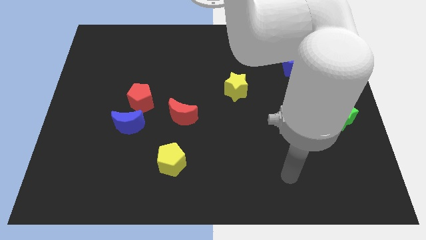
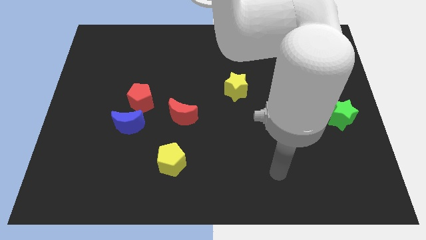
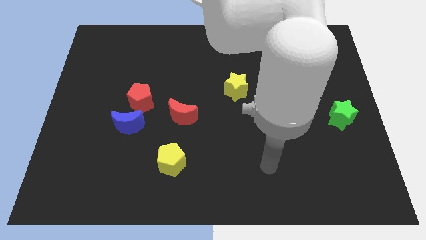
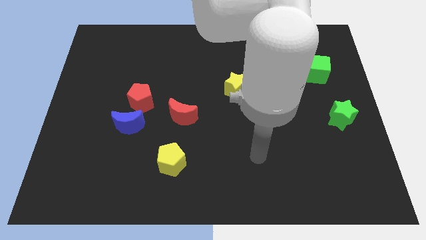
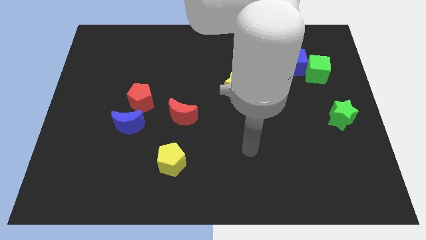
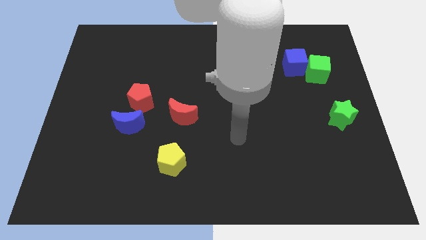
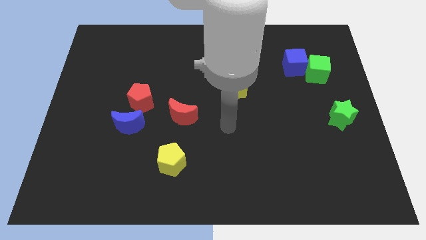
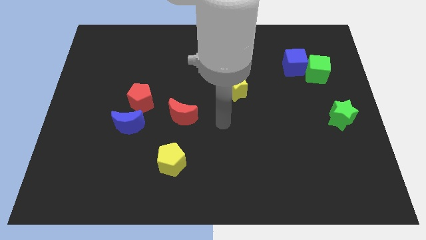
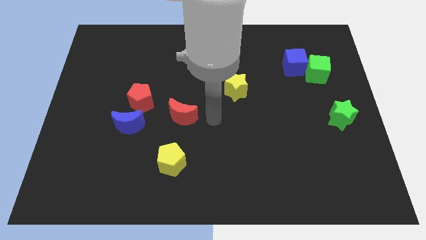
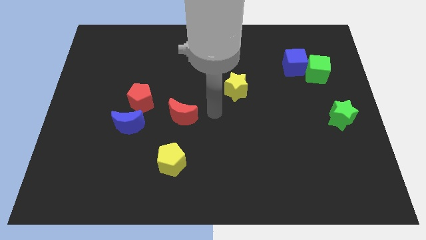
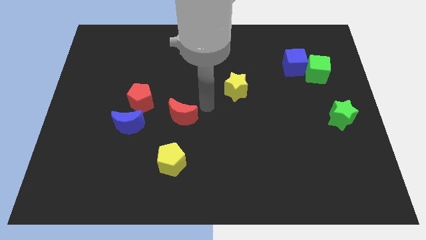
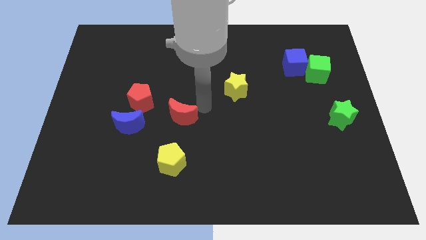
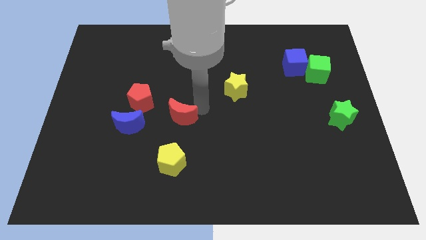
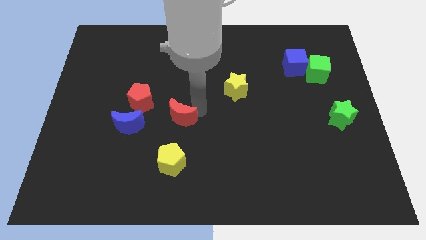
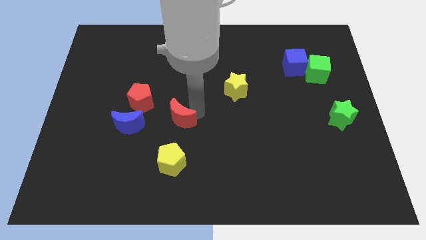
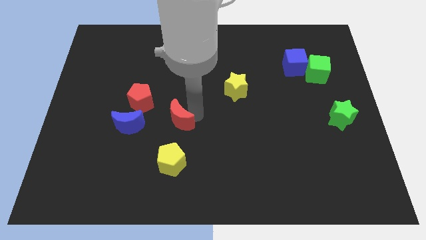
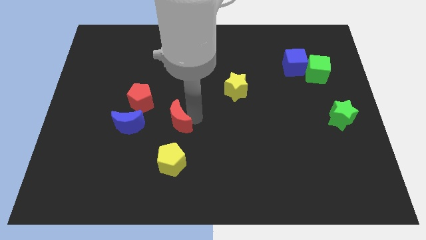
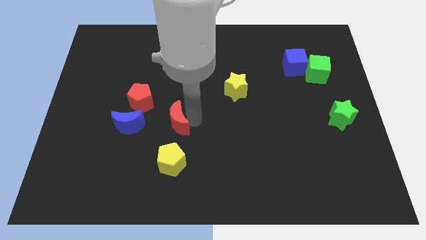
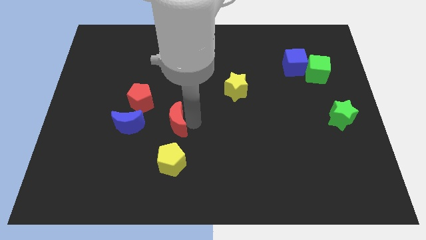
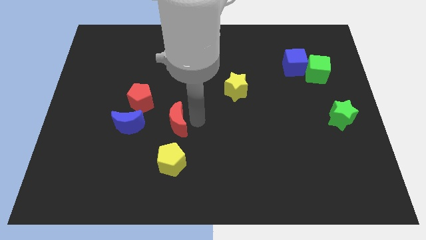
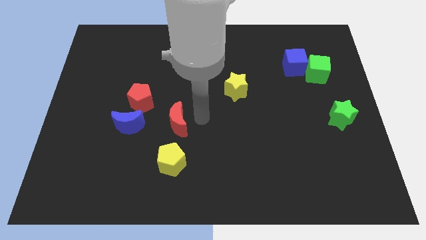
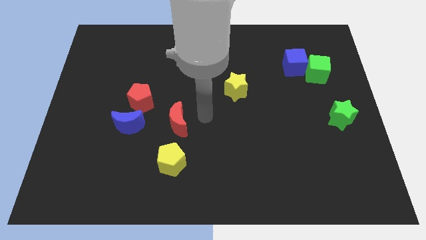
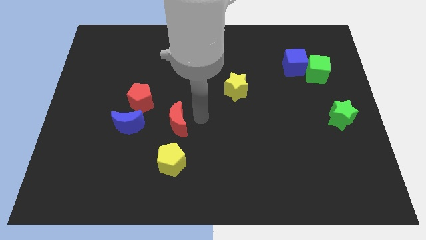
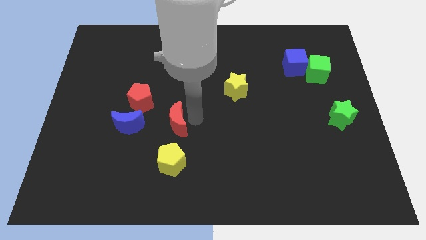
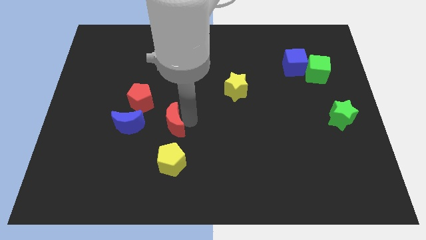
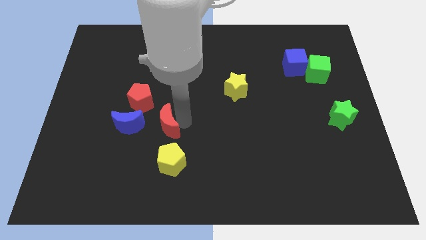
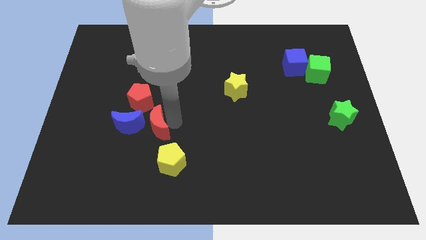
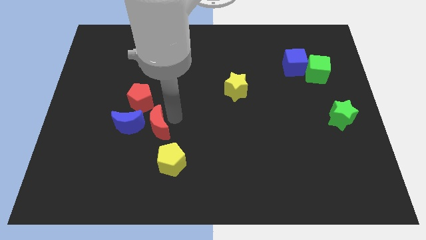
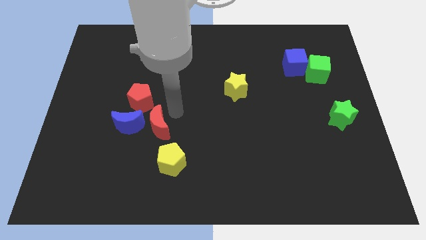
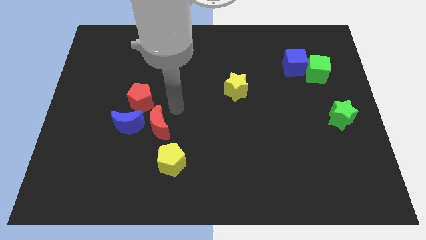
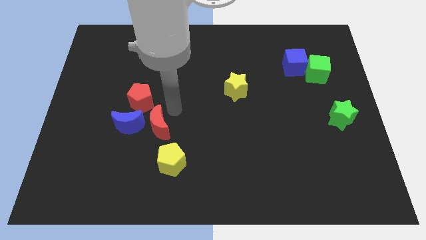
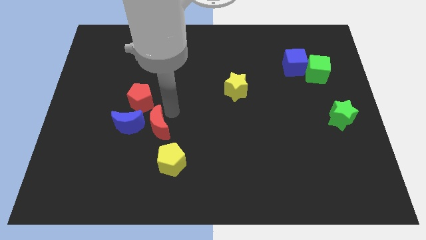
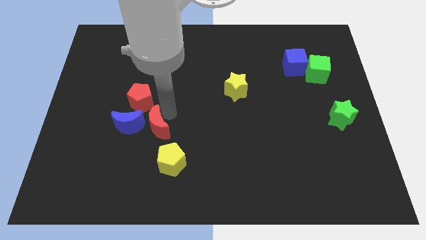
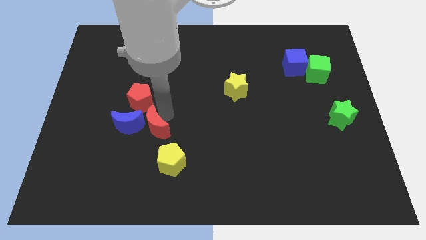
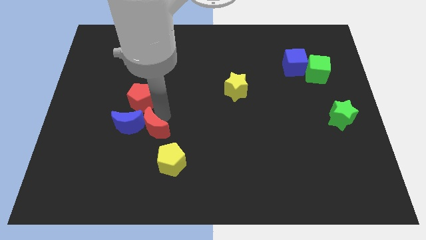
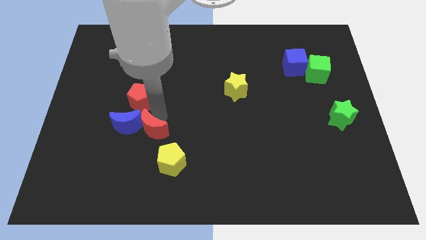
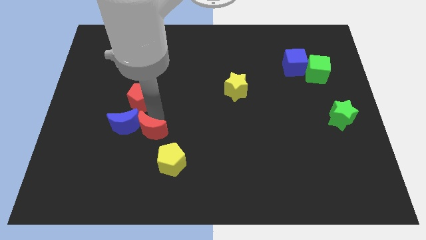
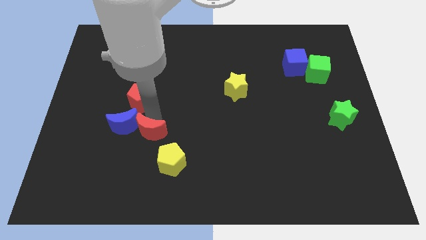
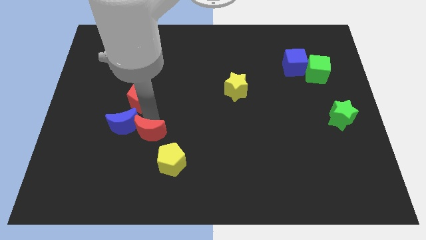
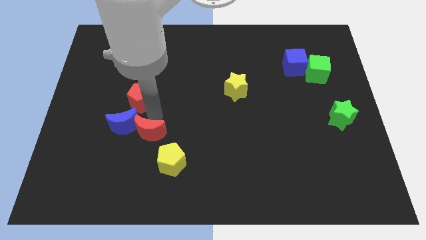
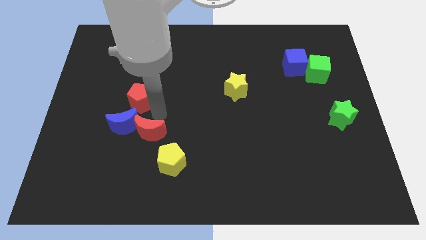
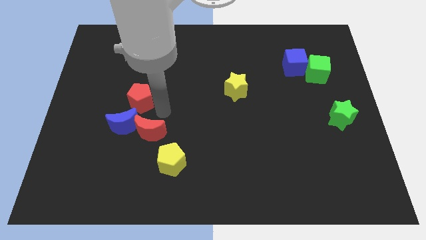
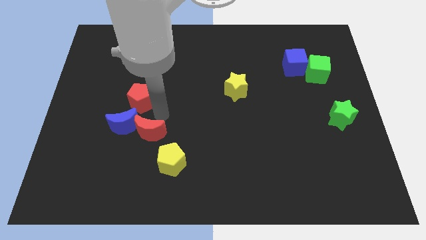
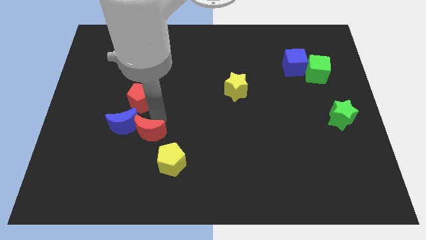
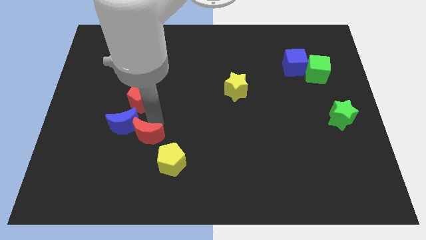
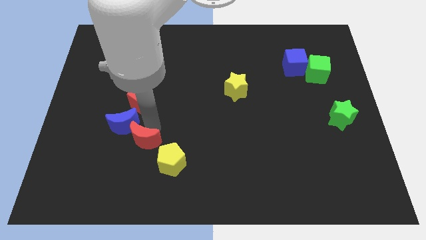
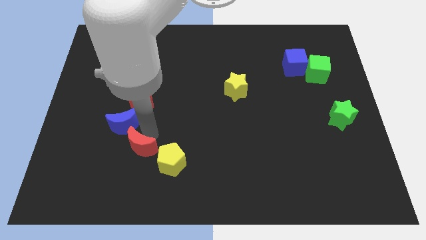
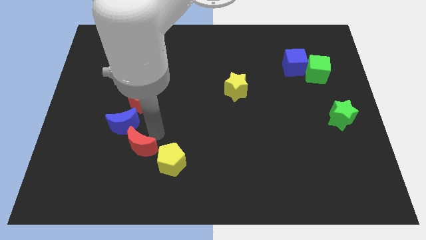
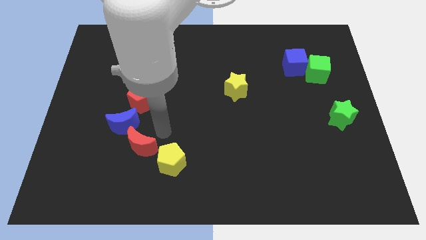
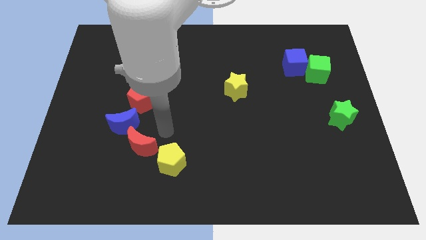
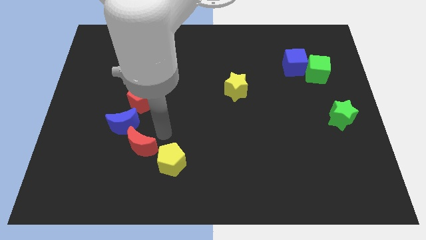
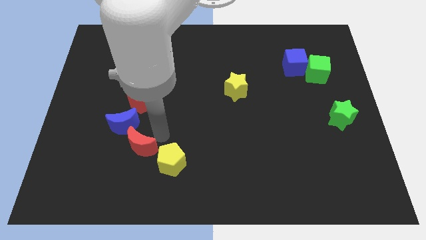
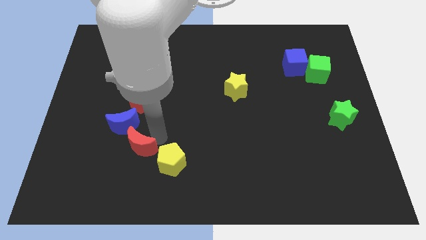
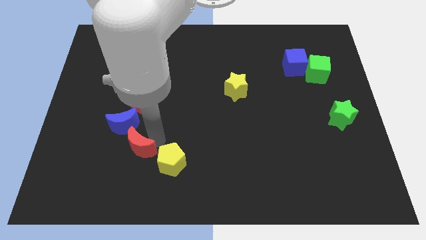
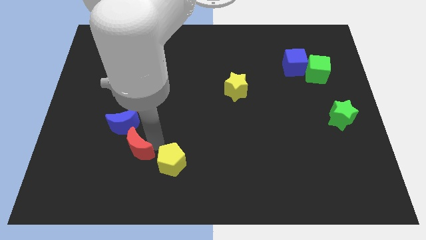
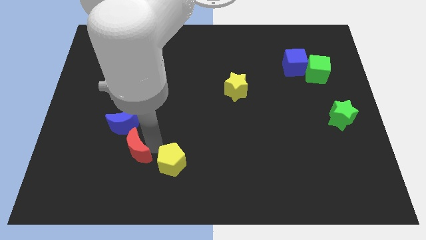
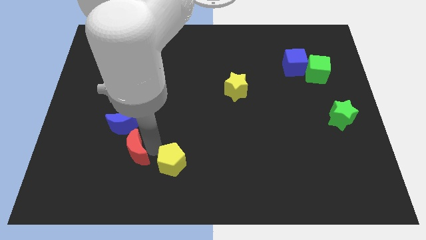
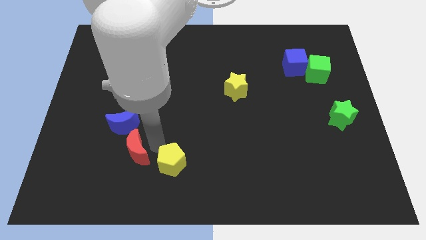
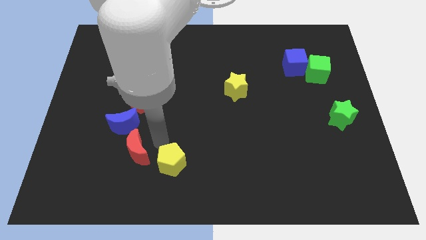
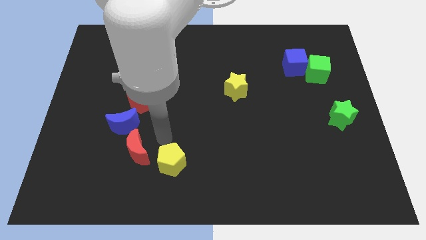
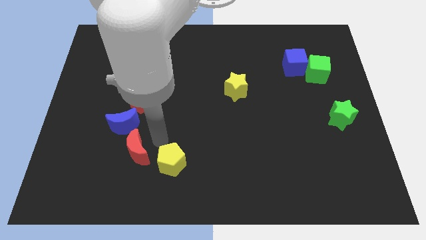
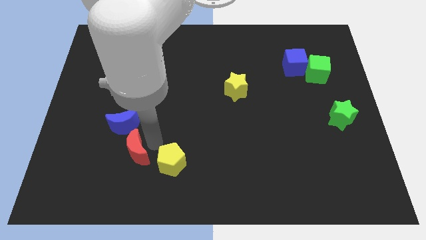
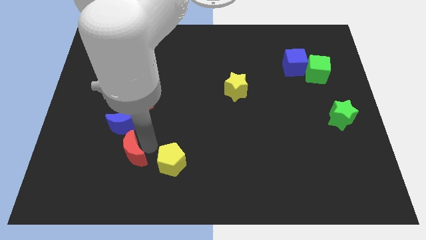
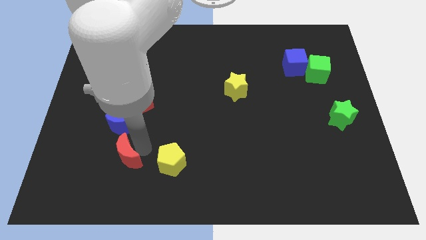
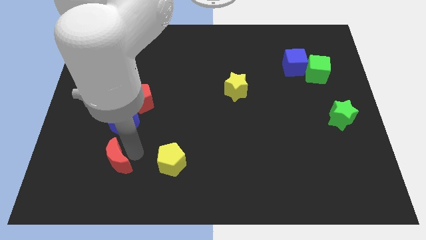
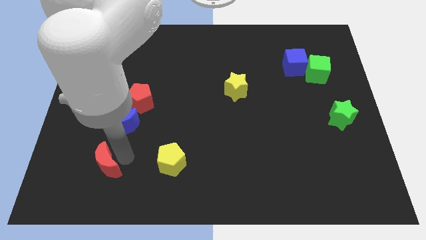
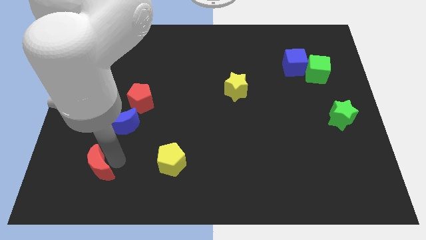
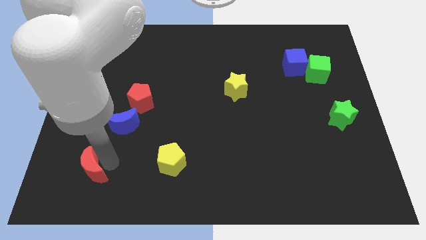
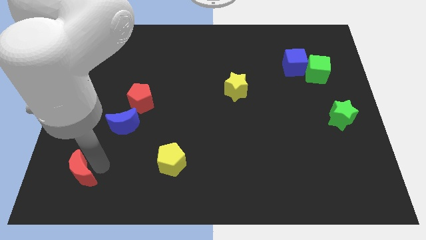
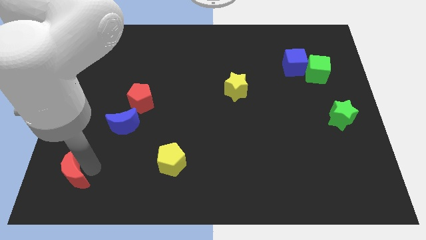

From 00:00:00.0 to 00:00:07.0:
put the red moon to the bottom left

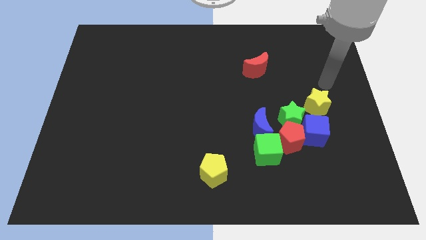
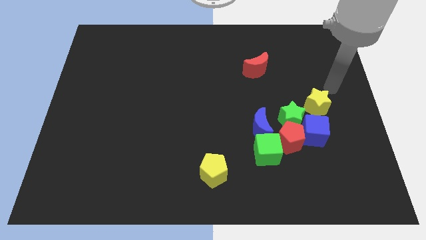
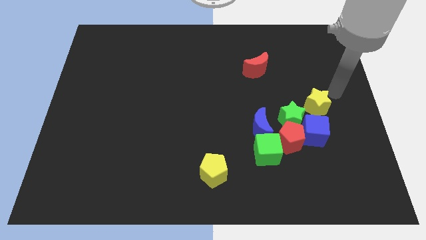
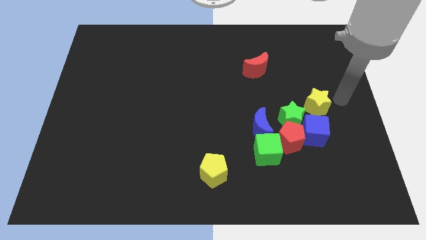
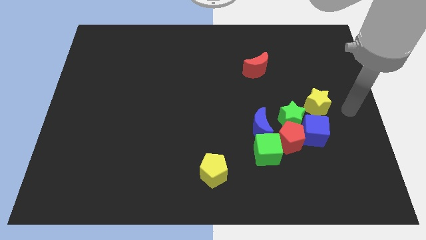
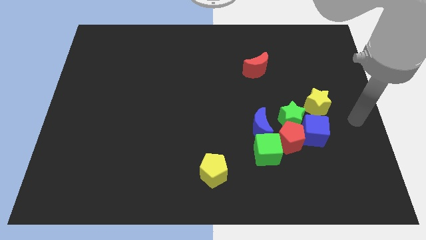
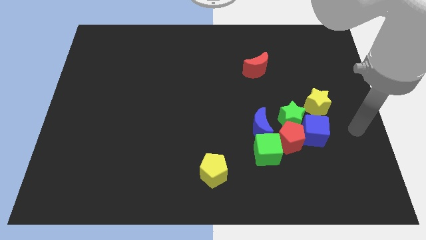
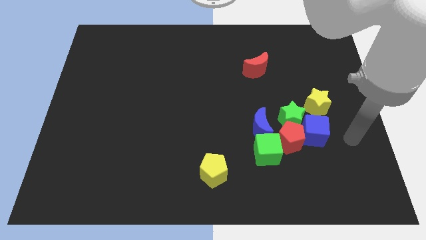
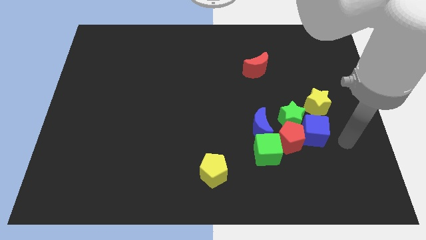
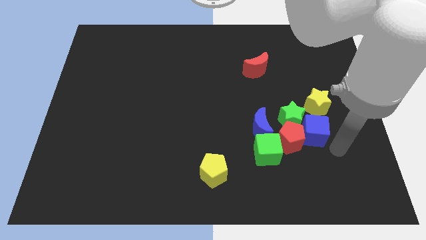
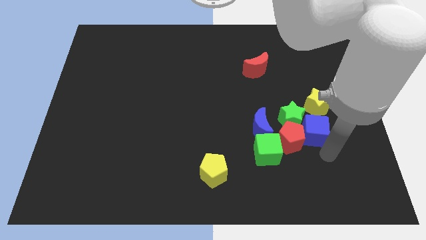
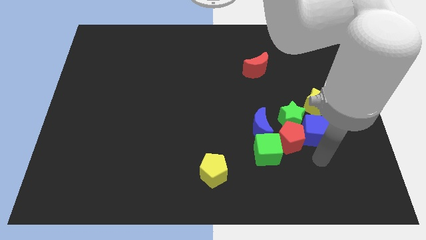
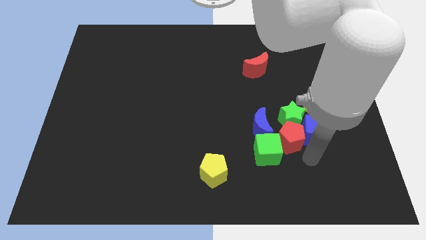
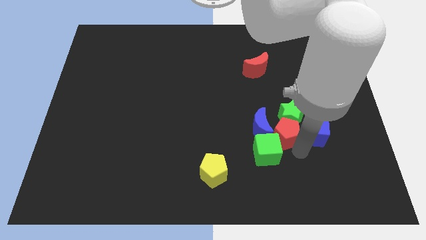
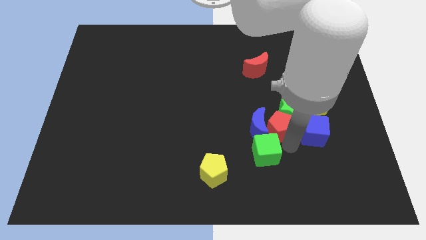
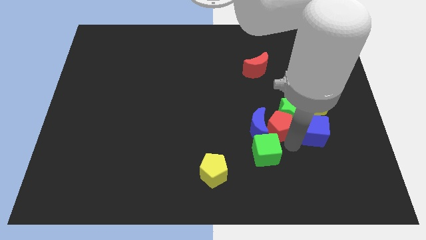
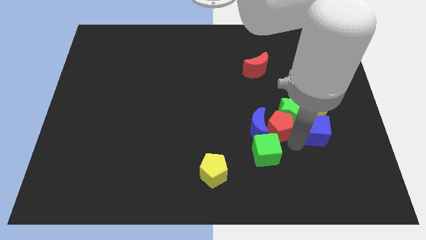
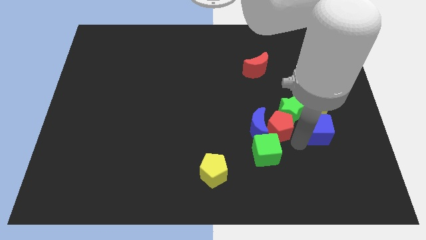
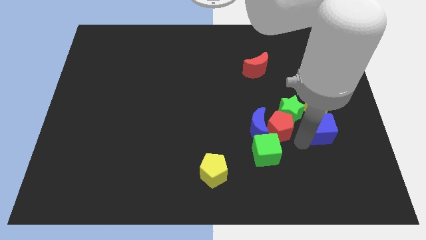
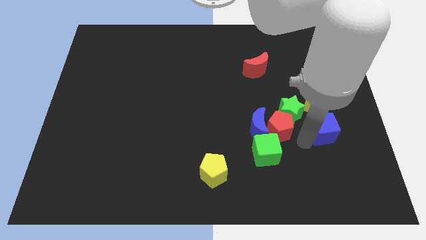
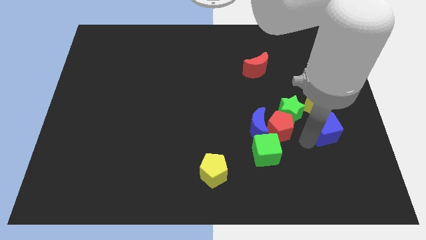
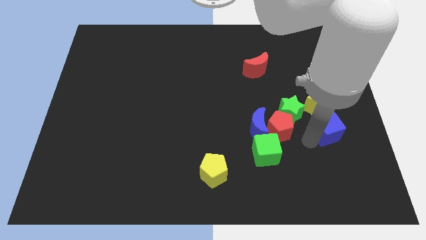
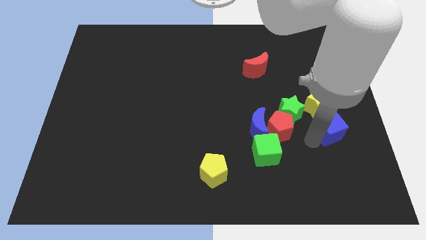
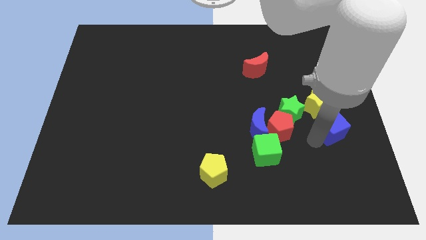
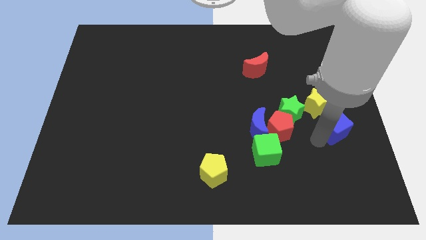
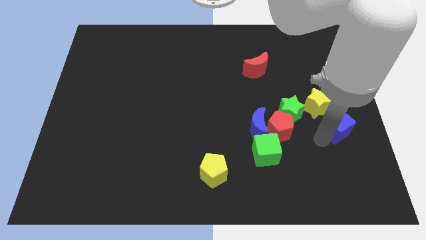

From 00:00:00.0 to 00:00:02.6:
move the blue cube to the right side
